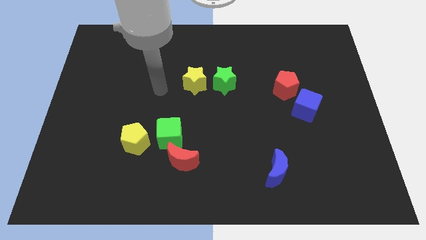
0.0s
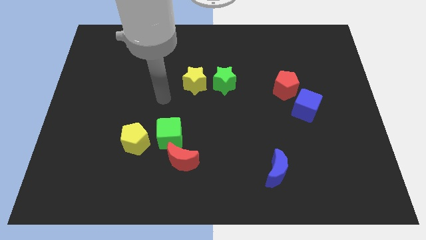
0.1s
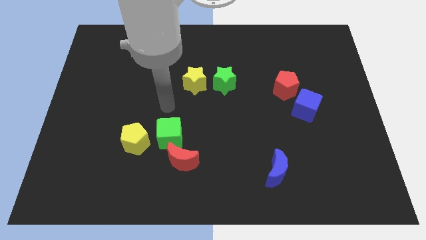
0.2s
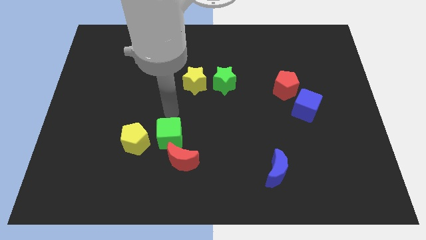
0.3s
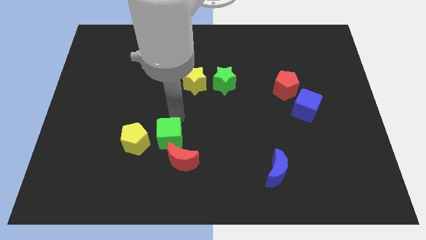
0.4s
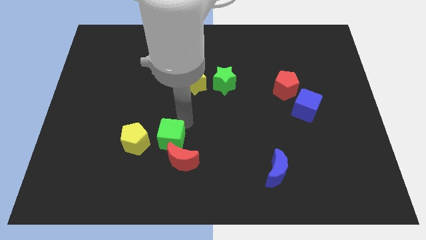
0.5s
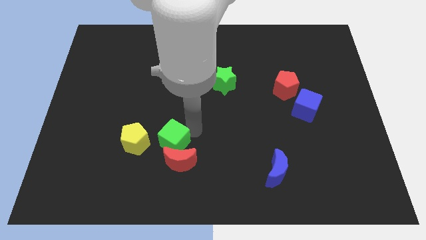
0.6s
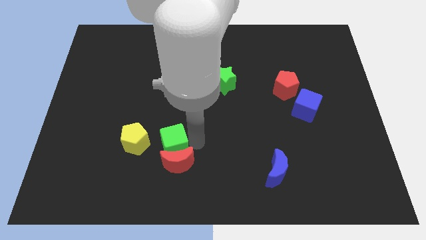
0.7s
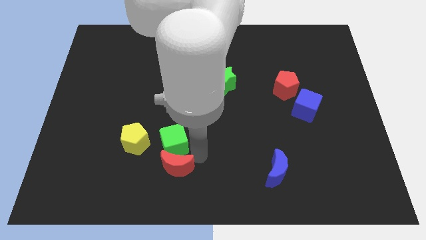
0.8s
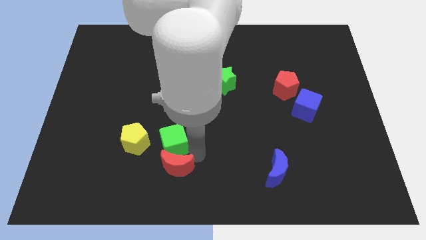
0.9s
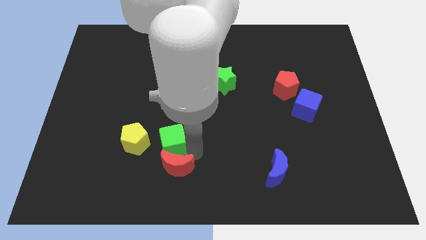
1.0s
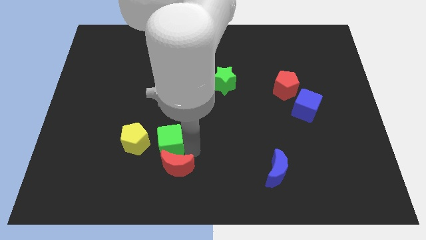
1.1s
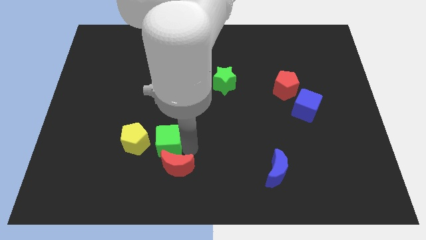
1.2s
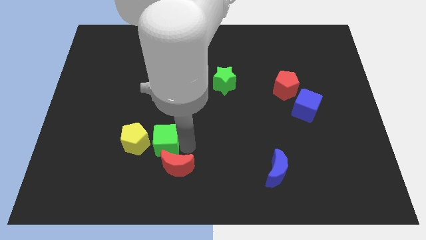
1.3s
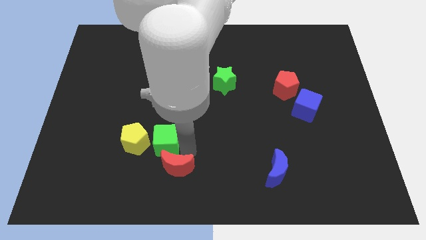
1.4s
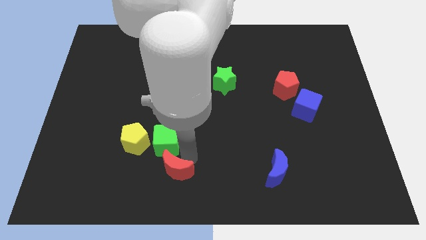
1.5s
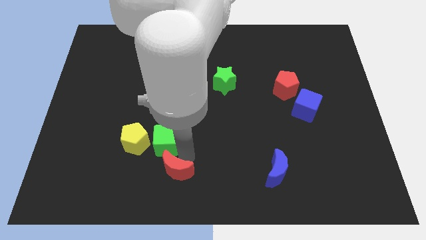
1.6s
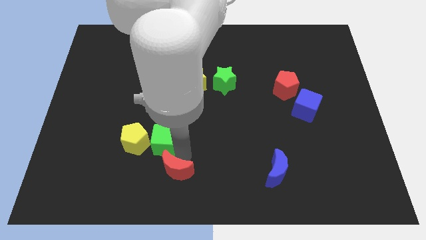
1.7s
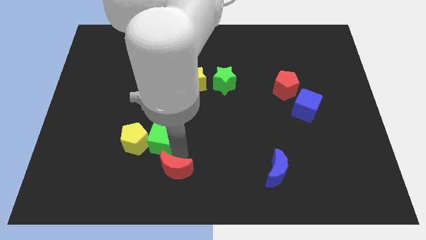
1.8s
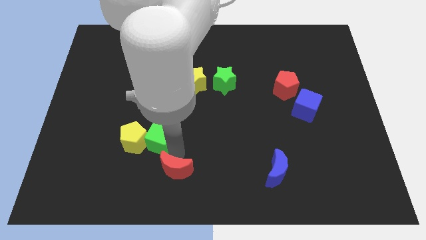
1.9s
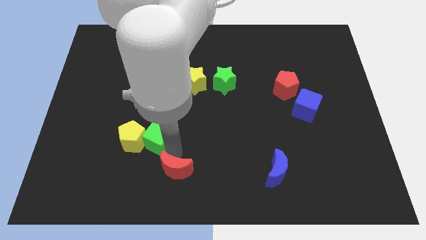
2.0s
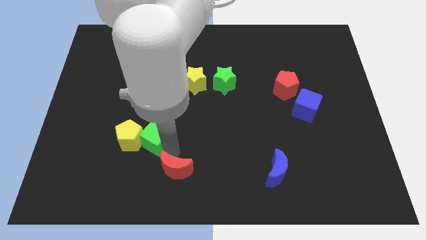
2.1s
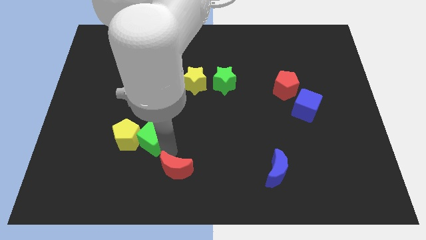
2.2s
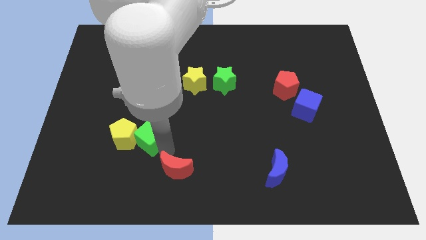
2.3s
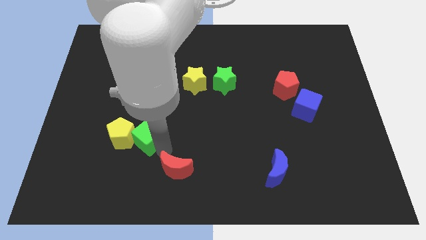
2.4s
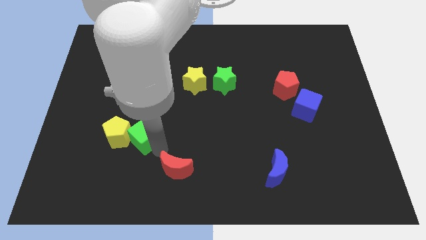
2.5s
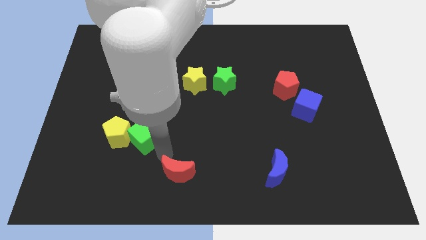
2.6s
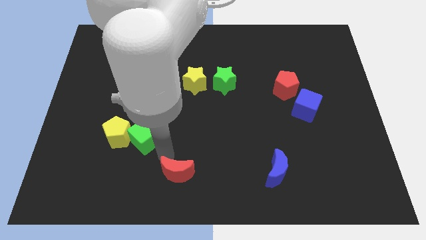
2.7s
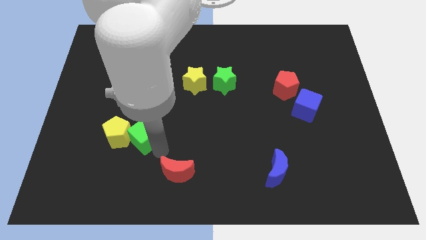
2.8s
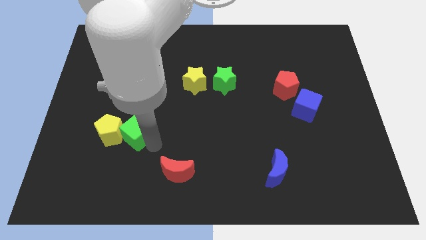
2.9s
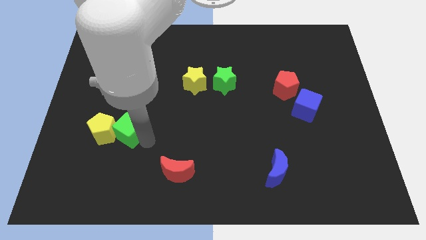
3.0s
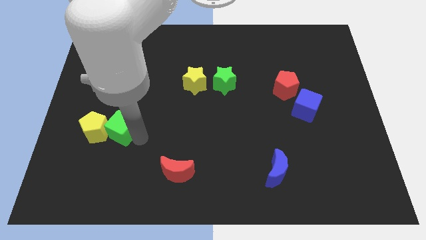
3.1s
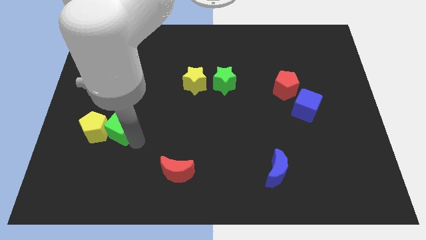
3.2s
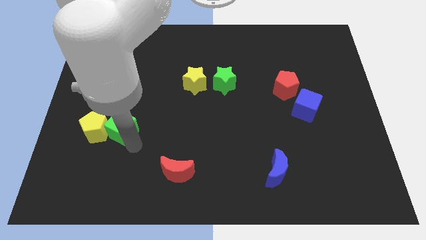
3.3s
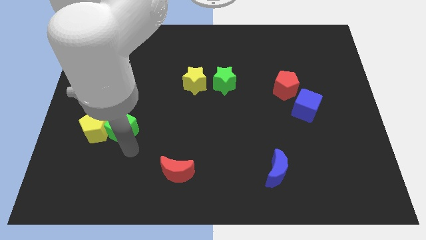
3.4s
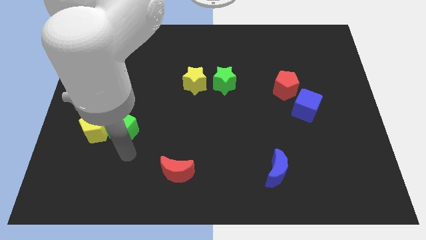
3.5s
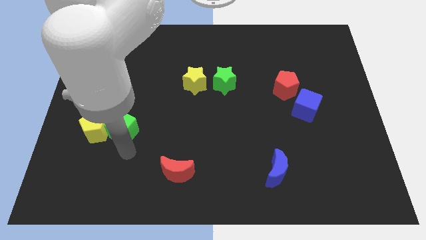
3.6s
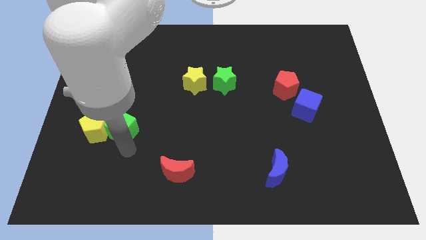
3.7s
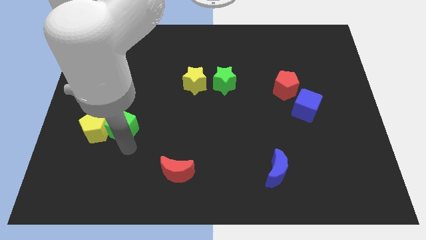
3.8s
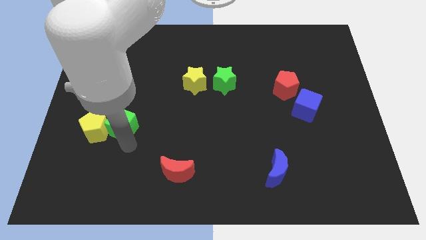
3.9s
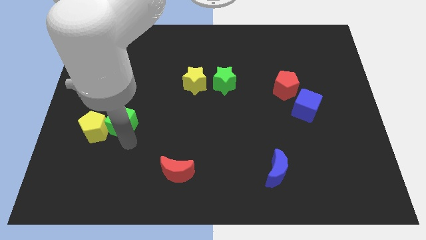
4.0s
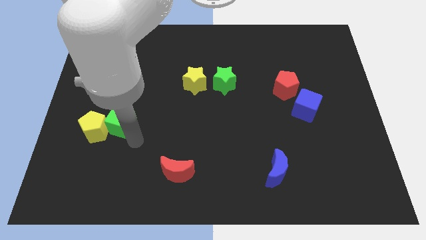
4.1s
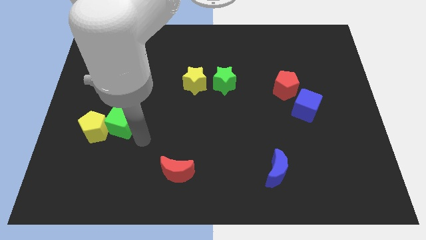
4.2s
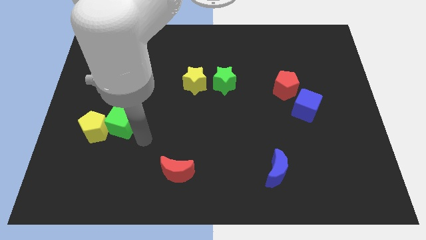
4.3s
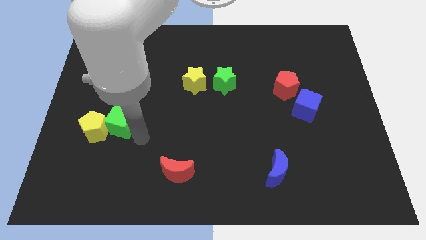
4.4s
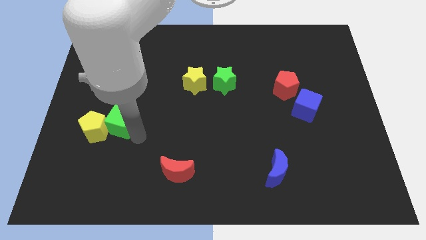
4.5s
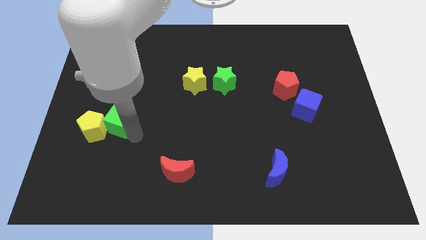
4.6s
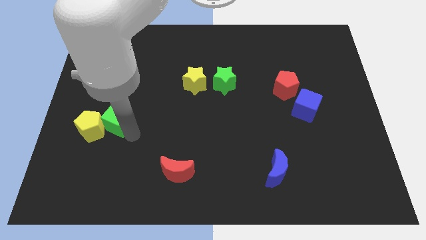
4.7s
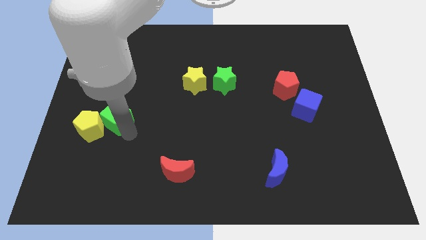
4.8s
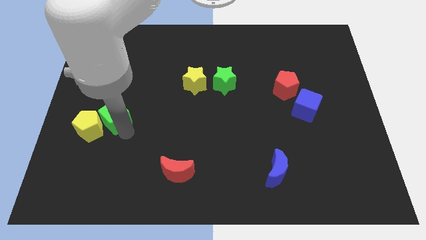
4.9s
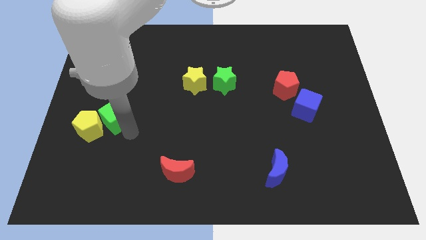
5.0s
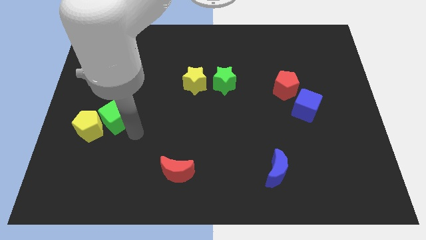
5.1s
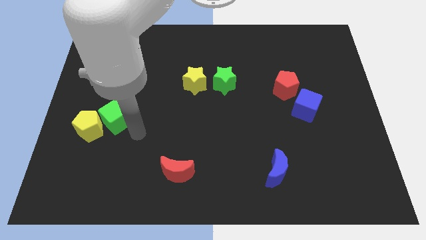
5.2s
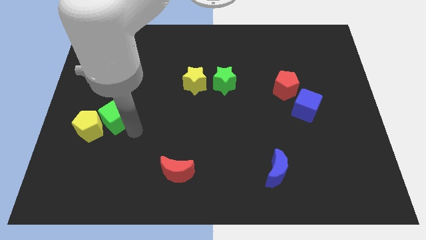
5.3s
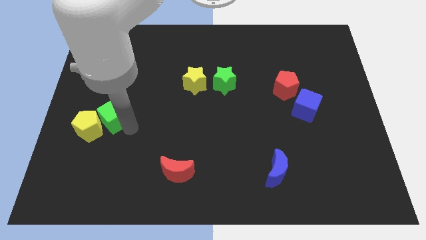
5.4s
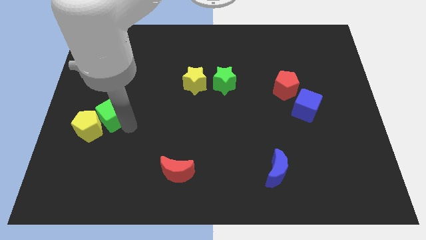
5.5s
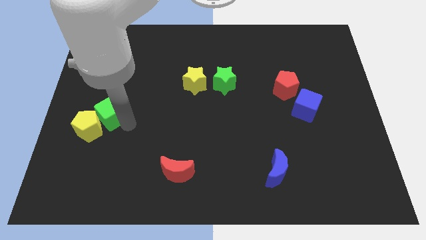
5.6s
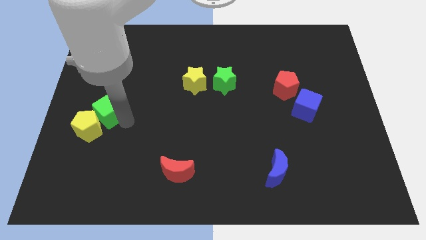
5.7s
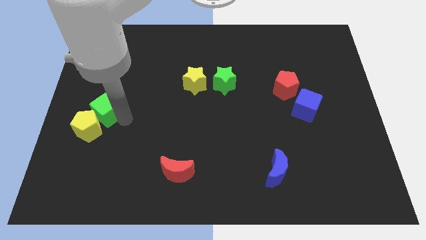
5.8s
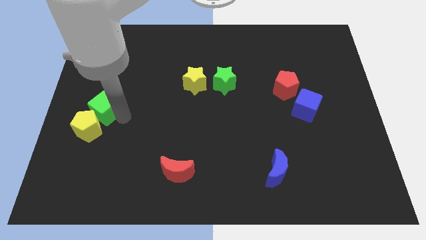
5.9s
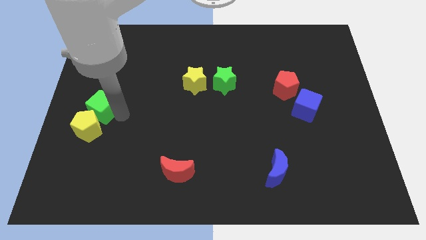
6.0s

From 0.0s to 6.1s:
slide the green cube to the left side
